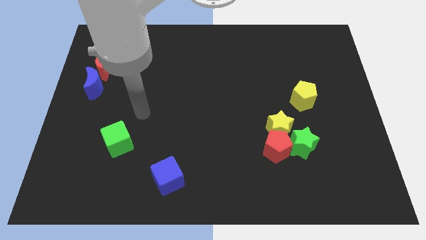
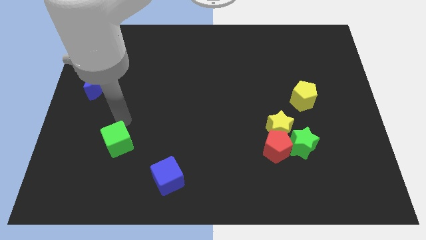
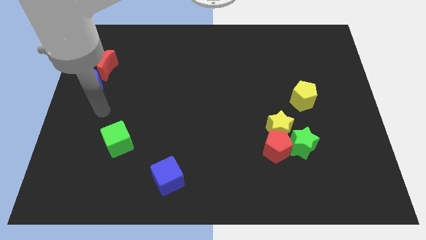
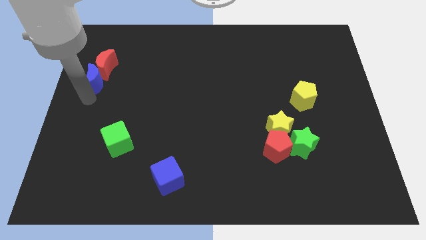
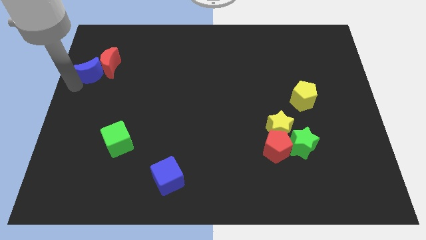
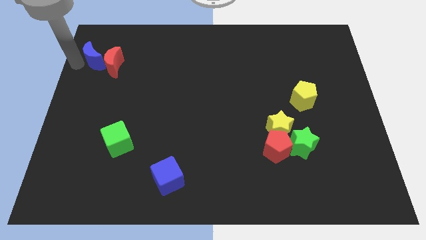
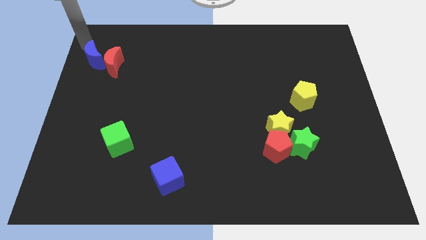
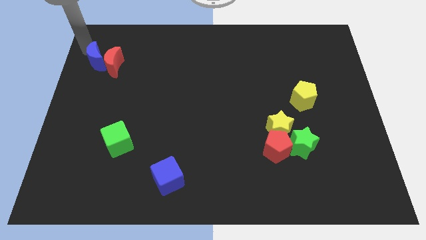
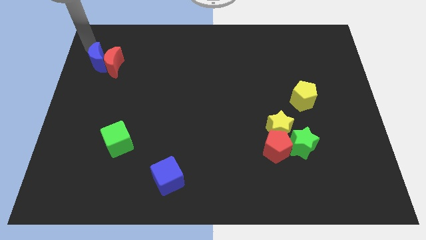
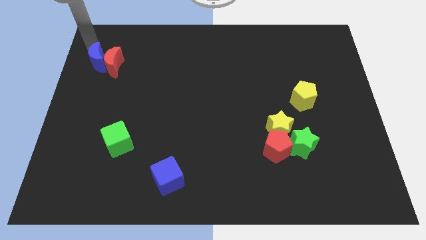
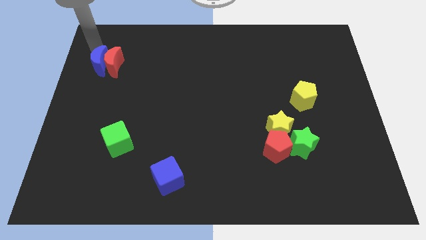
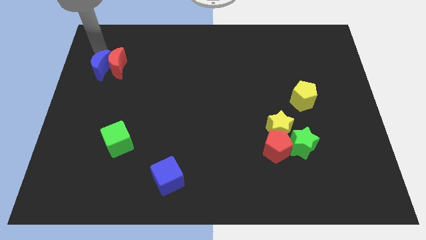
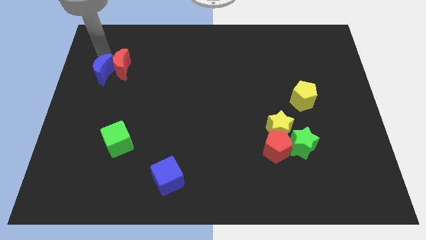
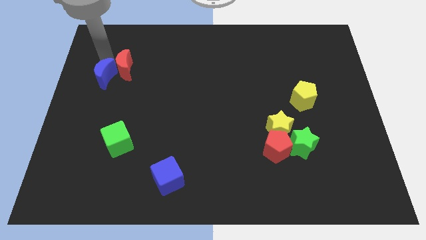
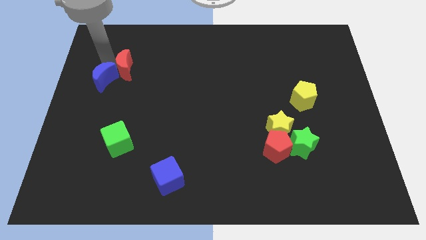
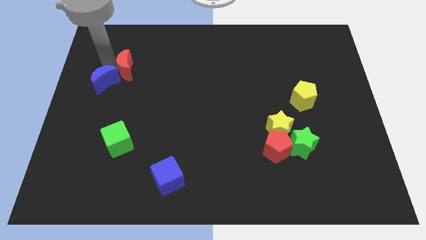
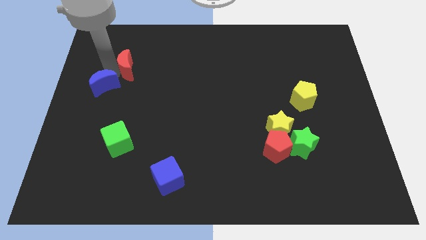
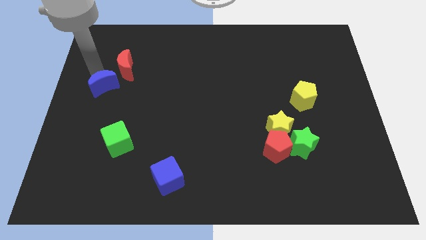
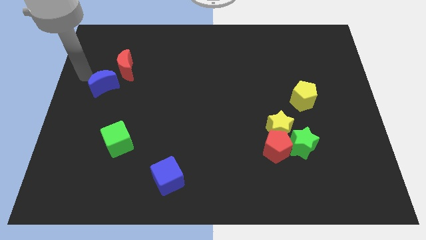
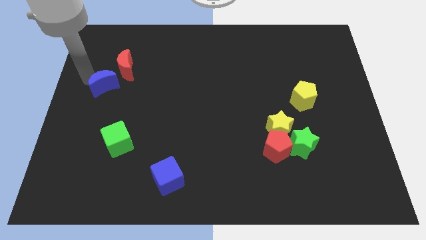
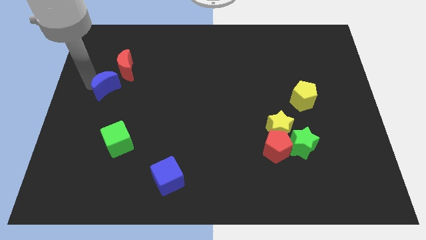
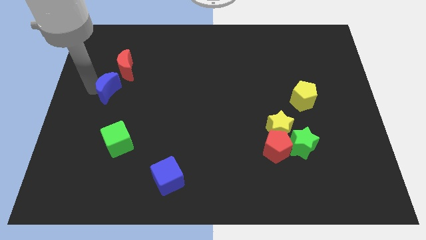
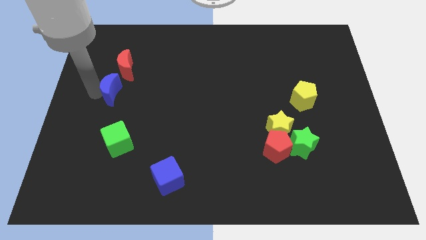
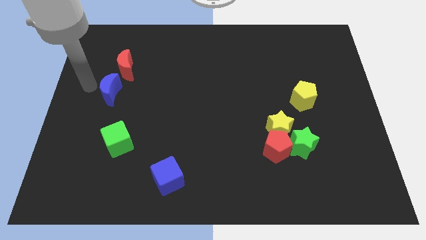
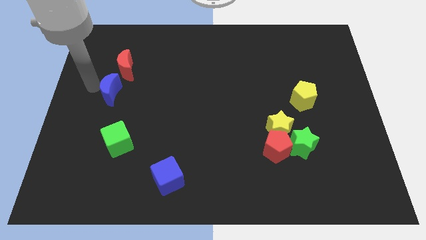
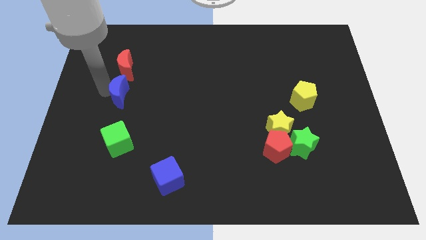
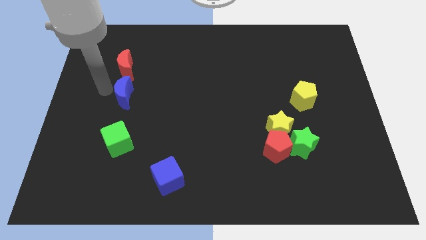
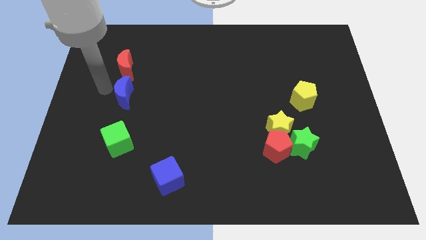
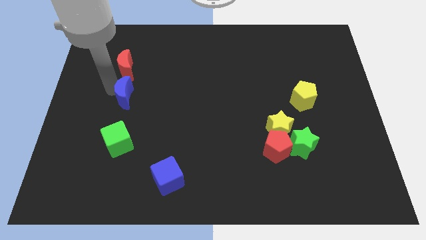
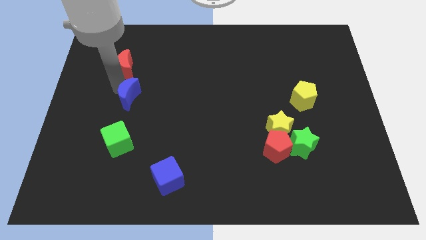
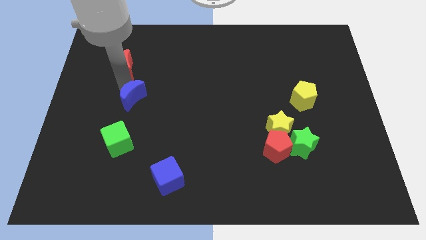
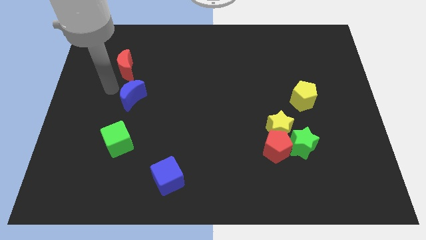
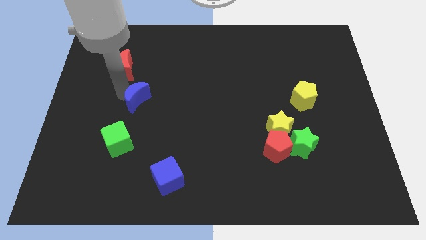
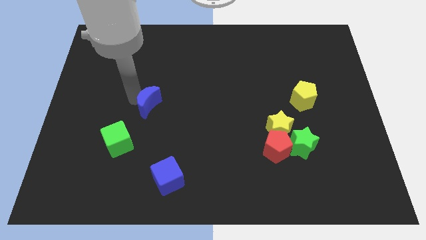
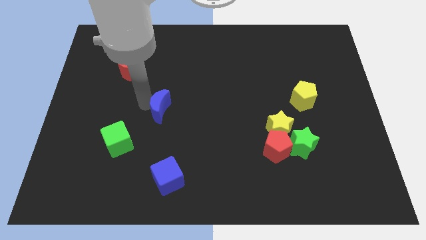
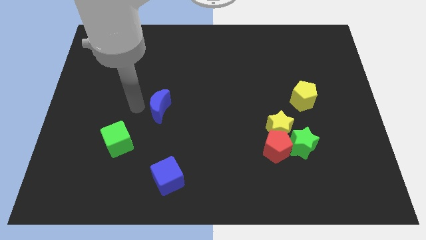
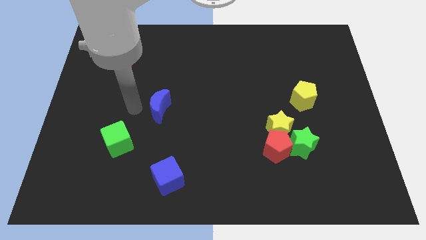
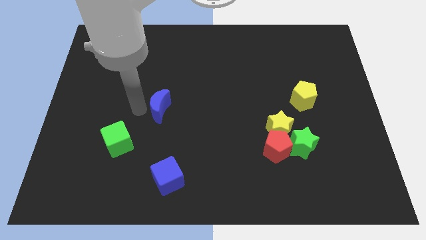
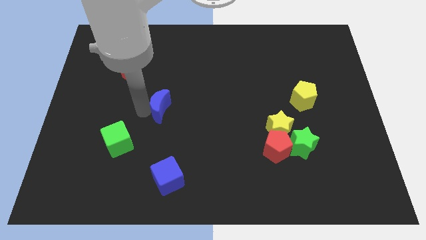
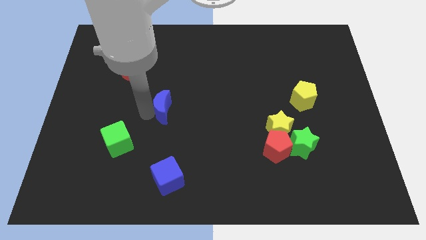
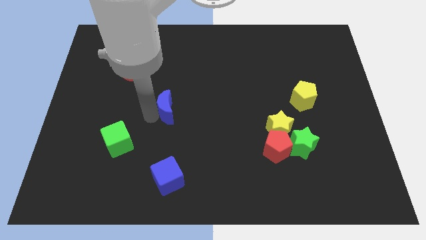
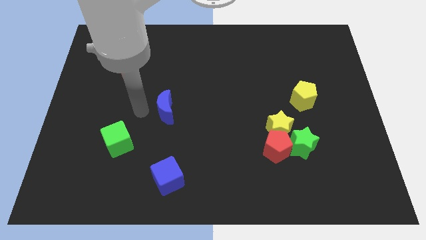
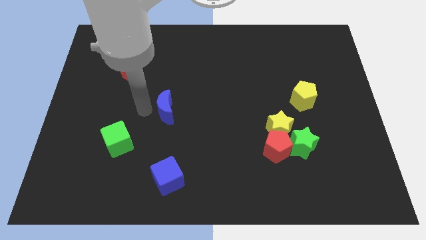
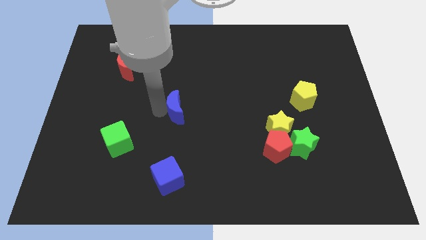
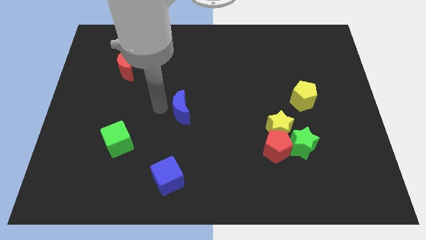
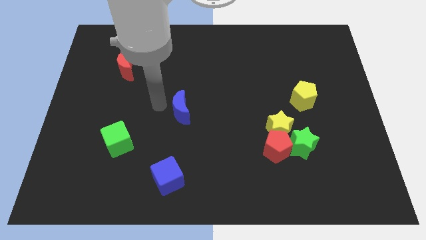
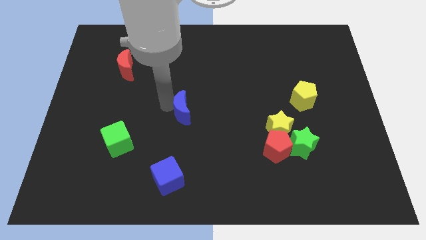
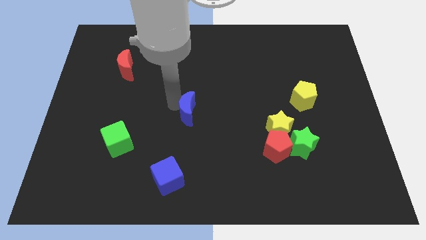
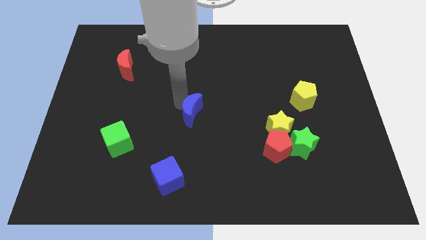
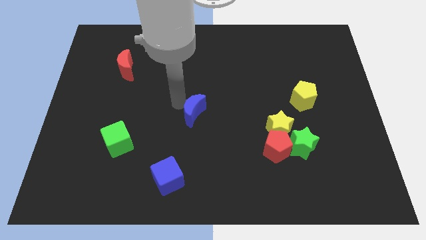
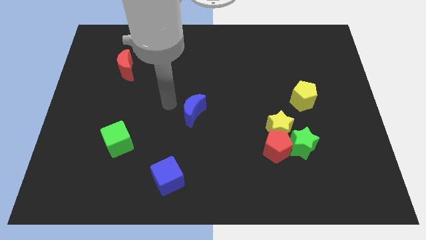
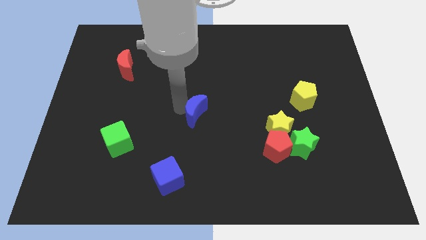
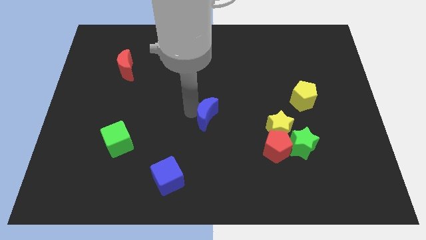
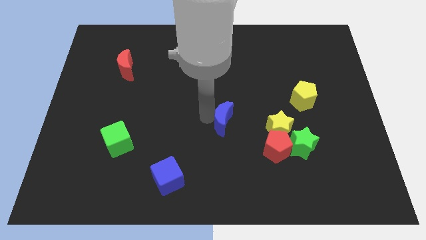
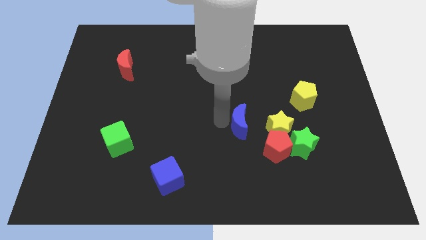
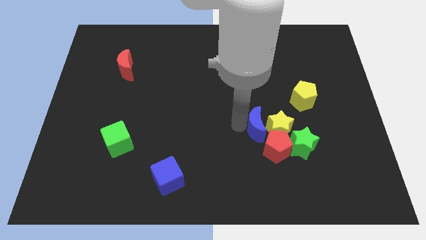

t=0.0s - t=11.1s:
push the blue moon close to the yellow star

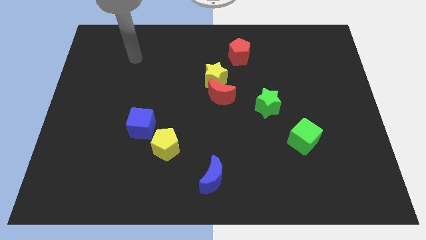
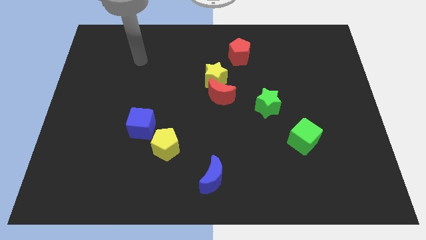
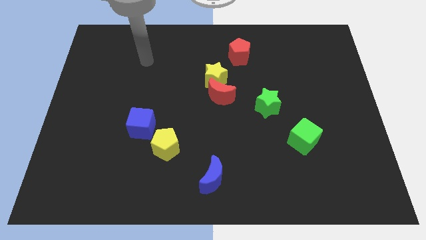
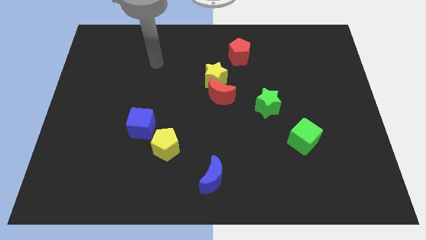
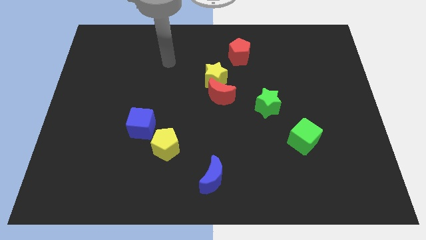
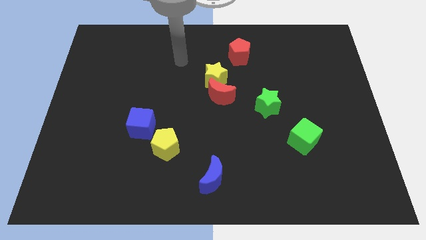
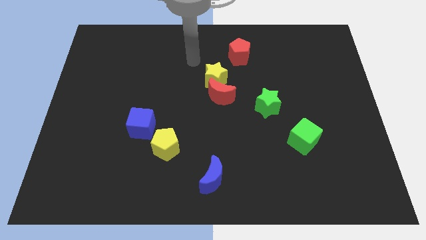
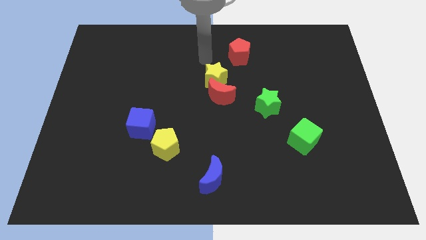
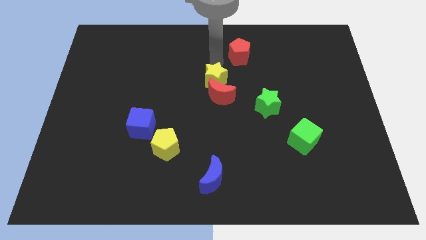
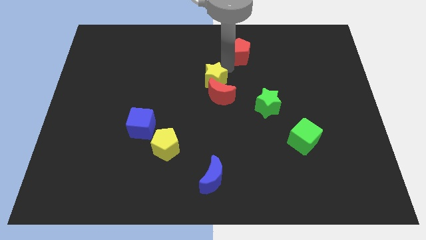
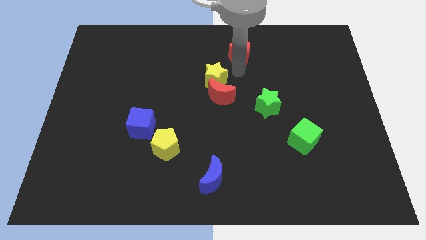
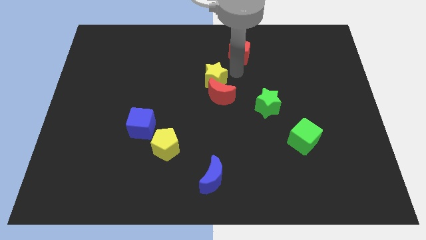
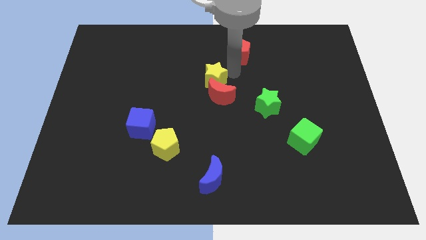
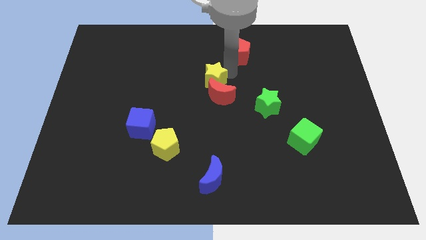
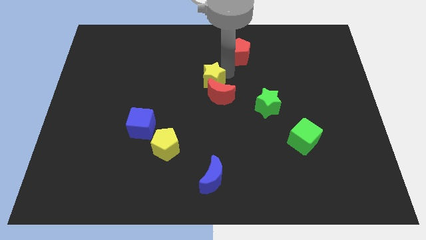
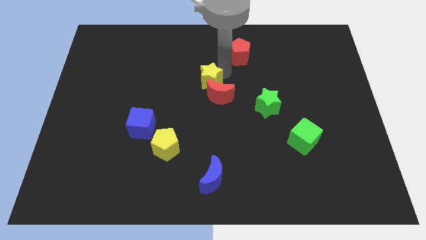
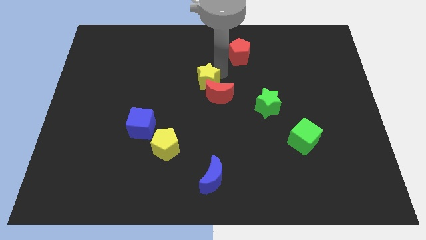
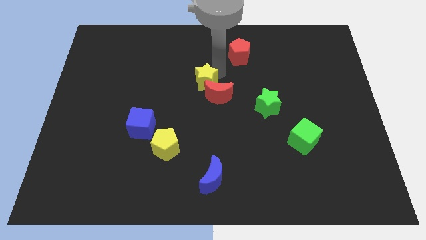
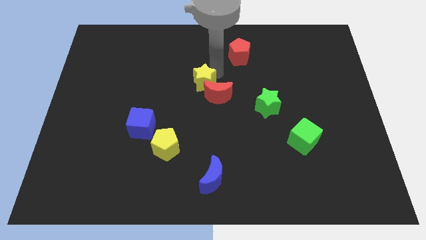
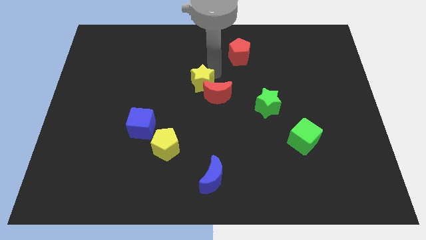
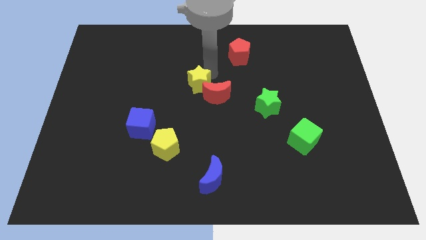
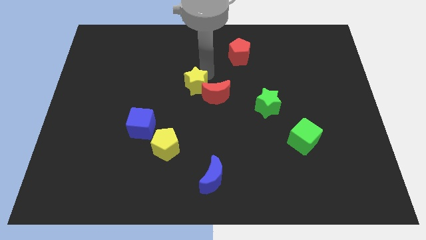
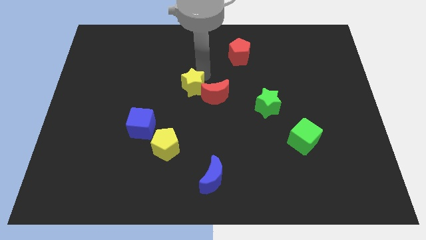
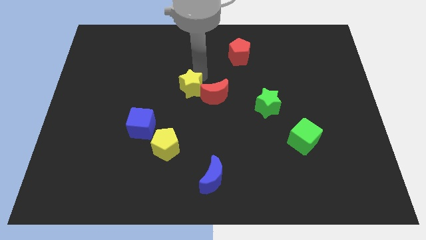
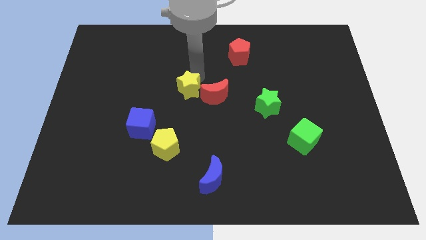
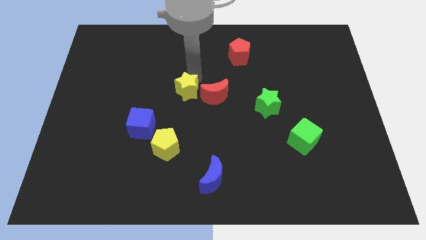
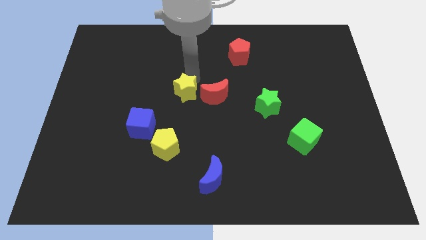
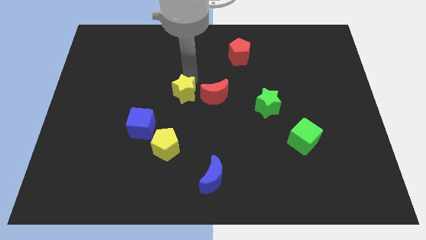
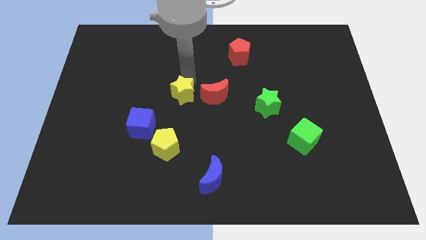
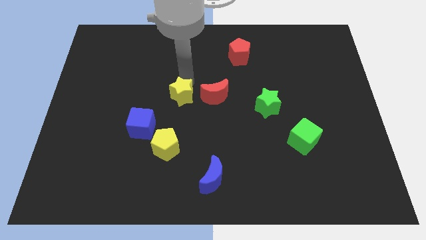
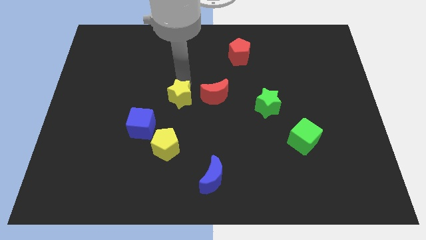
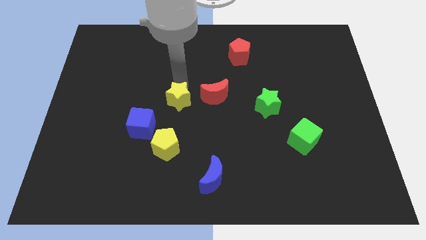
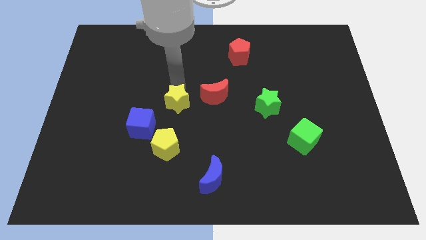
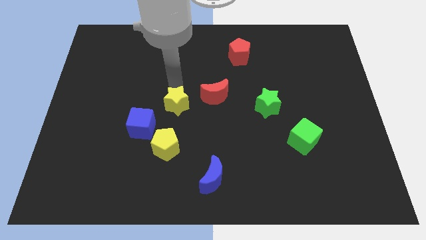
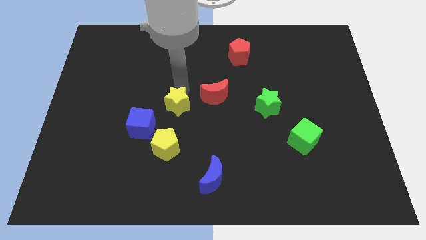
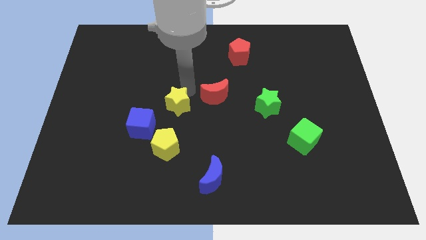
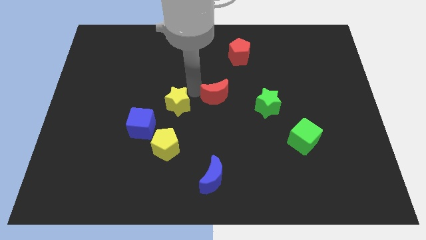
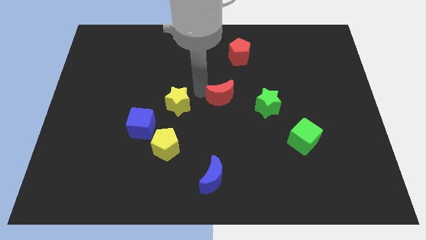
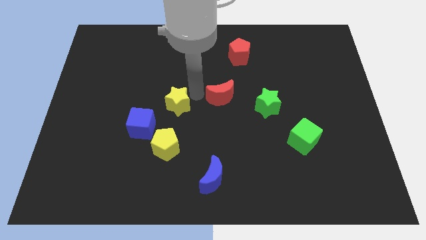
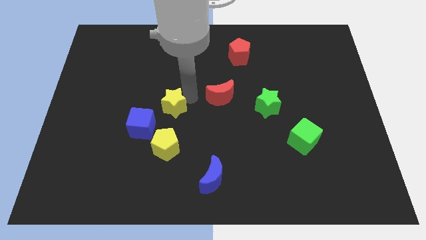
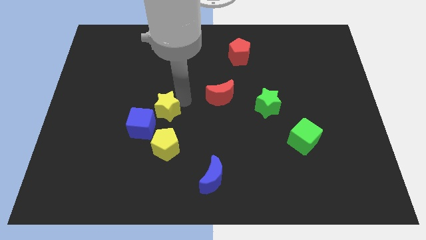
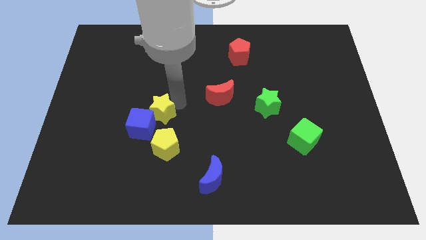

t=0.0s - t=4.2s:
put the yellow star to the blue cube
